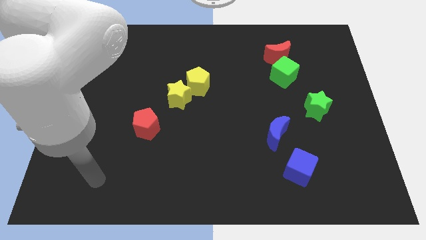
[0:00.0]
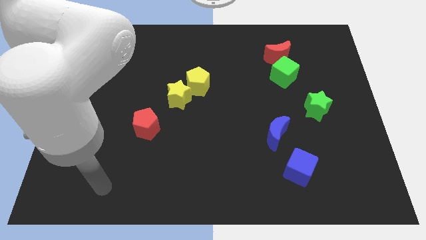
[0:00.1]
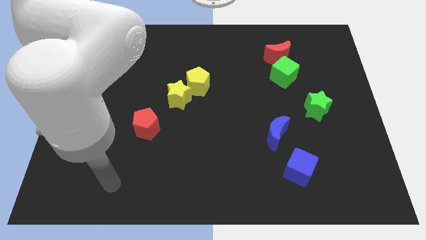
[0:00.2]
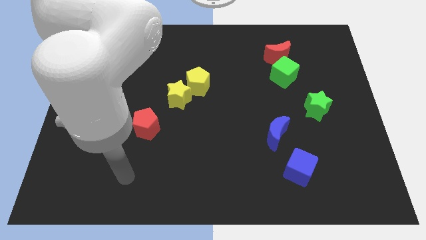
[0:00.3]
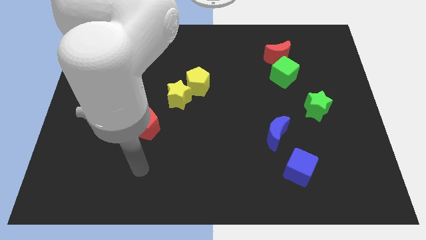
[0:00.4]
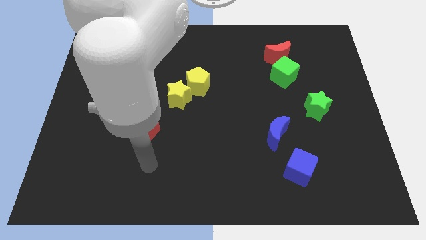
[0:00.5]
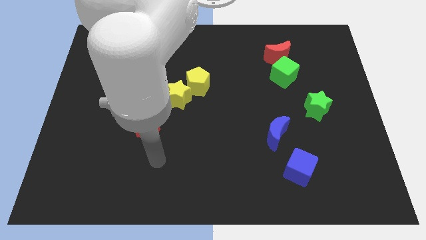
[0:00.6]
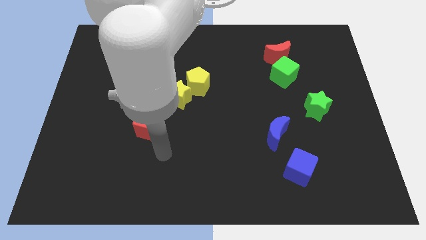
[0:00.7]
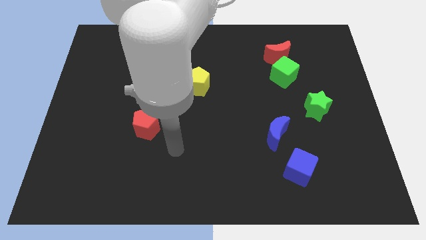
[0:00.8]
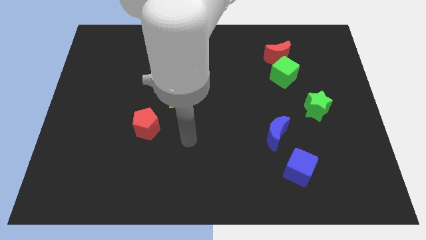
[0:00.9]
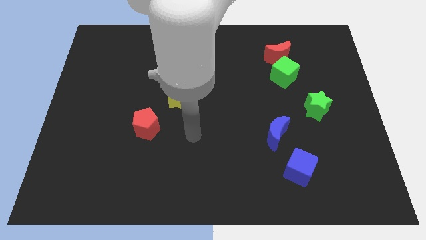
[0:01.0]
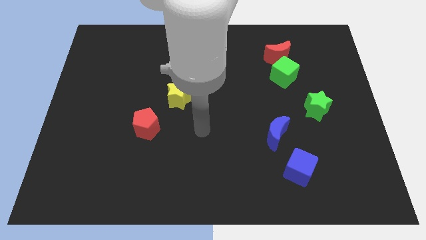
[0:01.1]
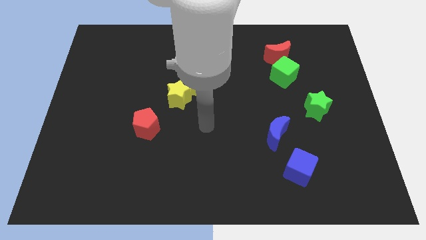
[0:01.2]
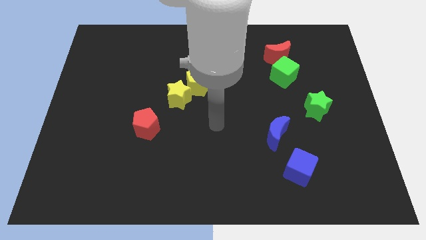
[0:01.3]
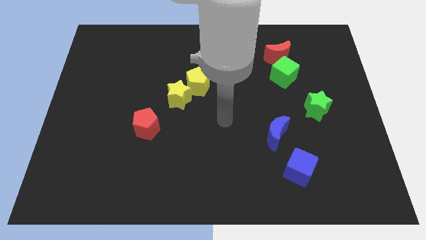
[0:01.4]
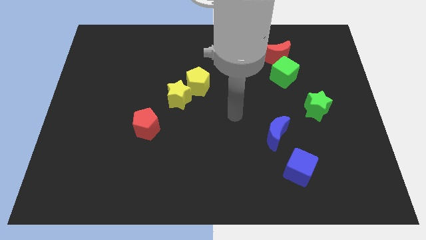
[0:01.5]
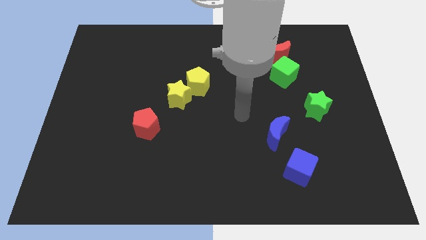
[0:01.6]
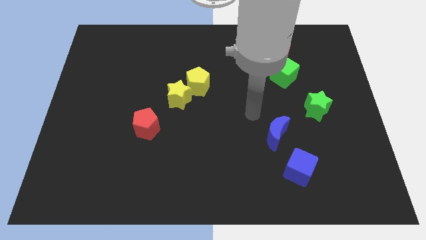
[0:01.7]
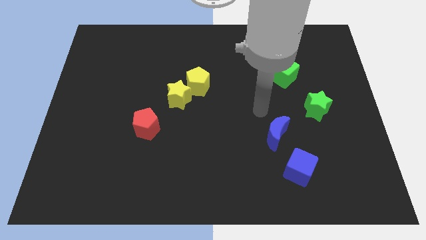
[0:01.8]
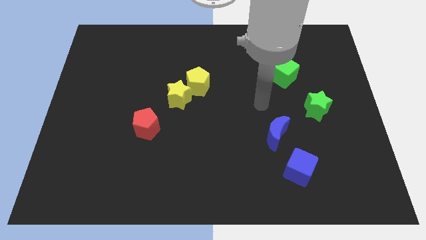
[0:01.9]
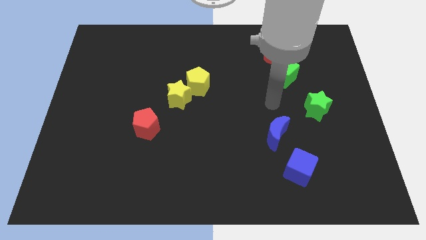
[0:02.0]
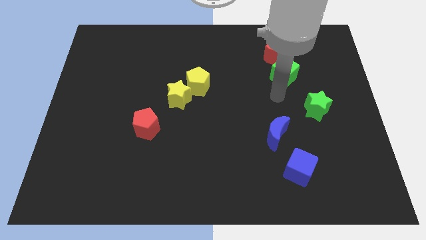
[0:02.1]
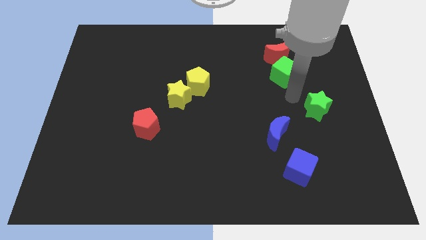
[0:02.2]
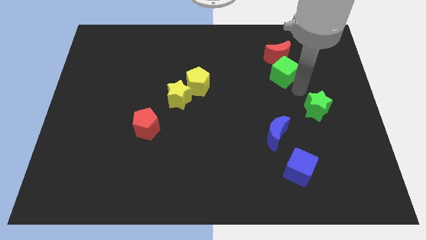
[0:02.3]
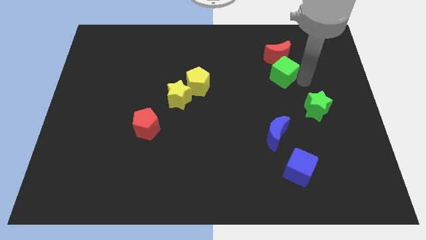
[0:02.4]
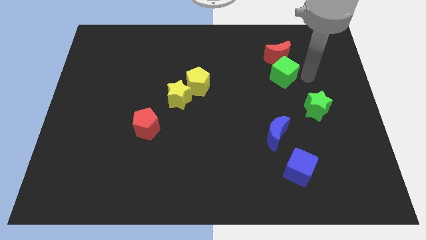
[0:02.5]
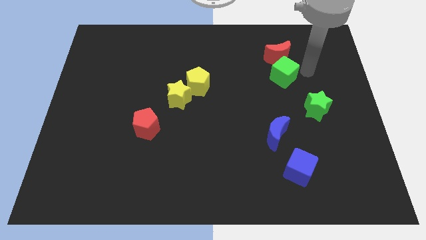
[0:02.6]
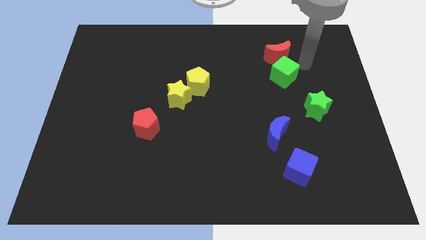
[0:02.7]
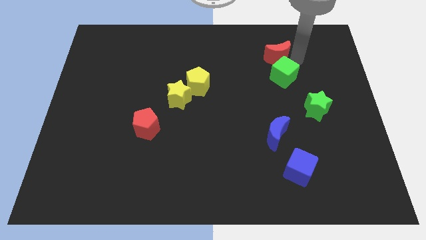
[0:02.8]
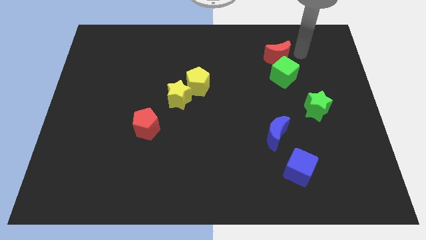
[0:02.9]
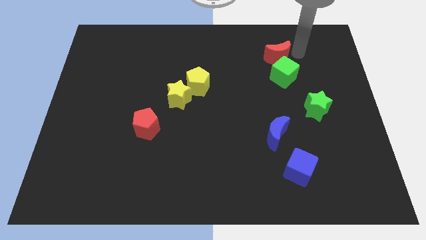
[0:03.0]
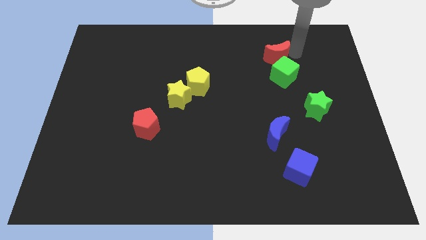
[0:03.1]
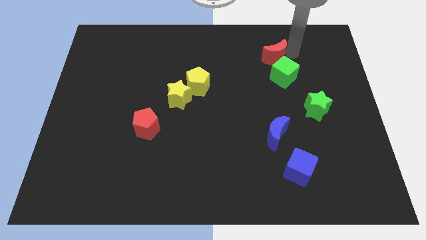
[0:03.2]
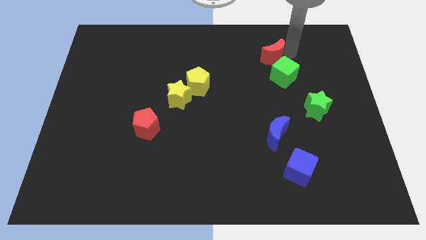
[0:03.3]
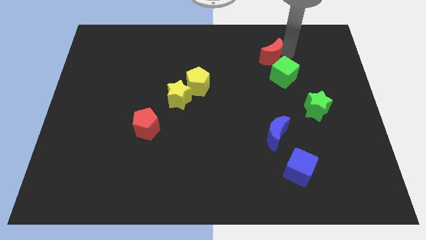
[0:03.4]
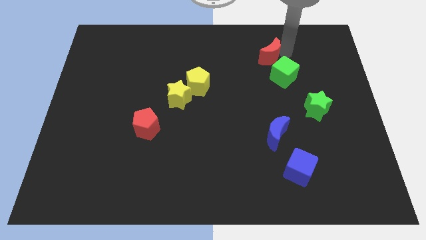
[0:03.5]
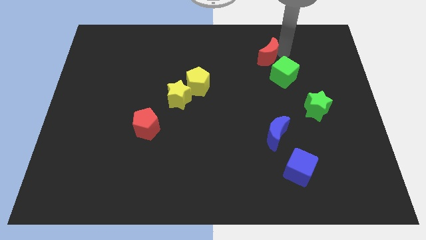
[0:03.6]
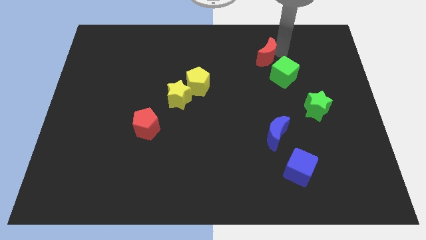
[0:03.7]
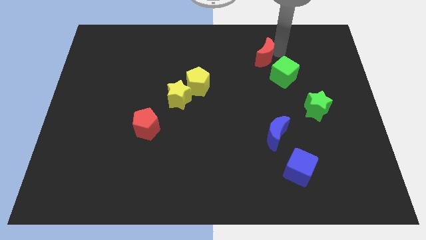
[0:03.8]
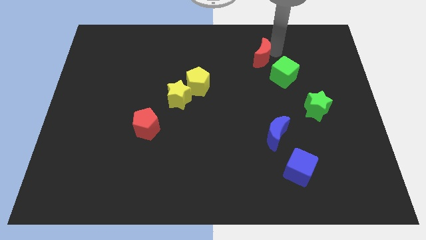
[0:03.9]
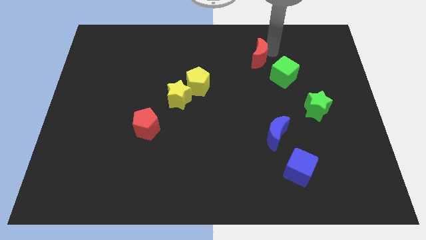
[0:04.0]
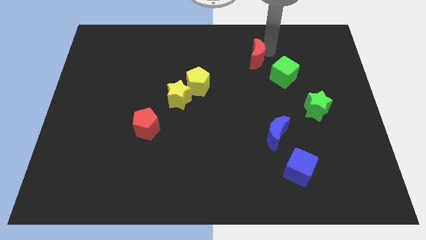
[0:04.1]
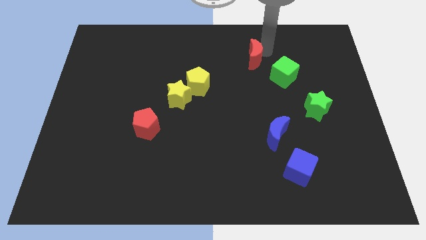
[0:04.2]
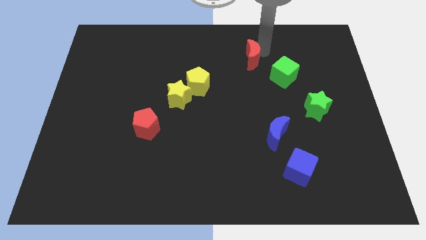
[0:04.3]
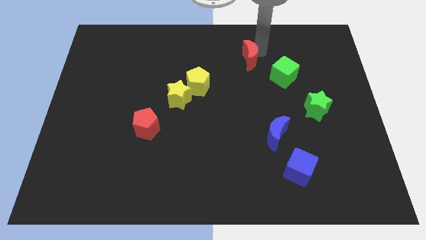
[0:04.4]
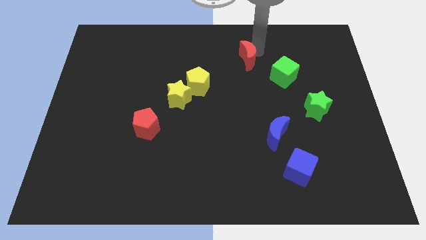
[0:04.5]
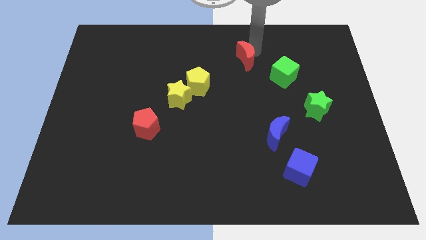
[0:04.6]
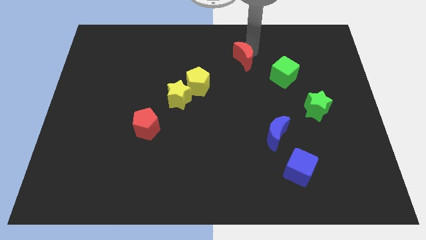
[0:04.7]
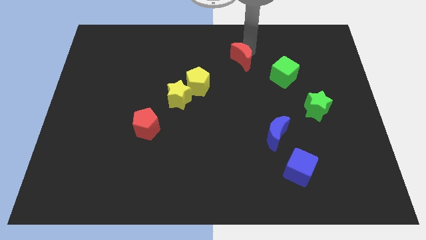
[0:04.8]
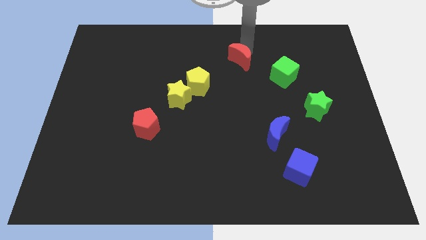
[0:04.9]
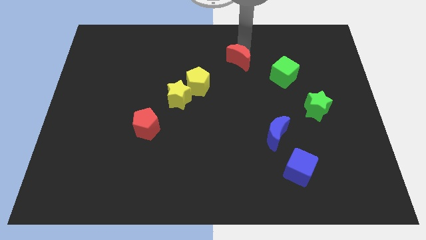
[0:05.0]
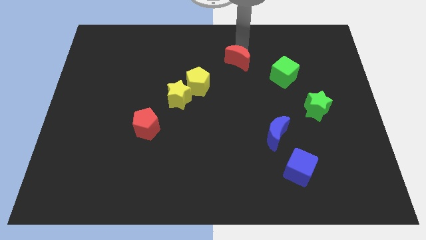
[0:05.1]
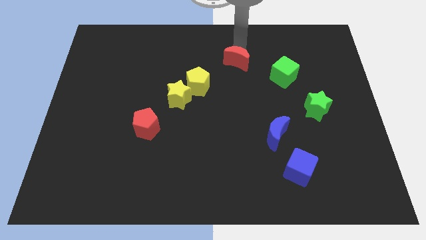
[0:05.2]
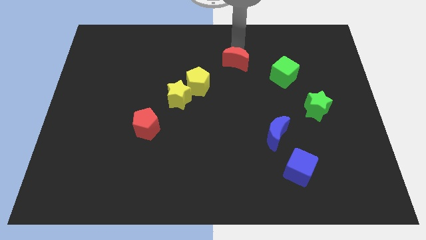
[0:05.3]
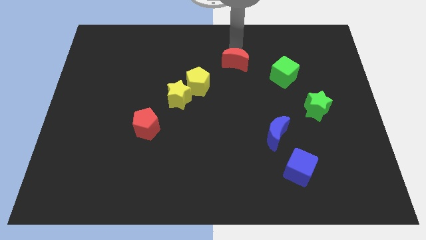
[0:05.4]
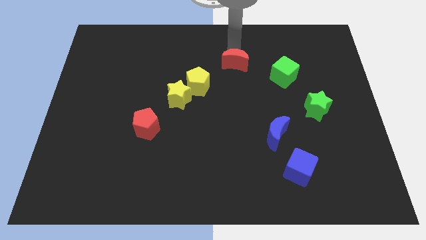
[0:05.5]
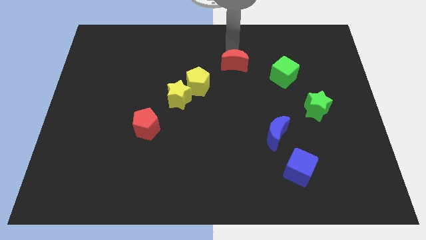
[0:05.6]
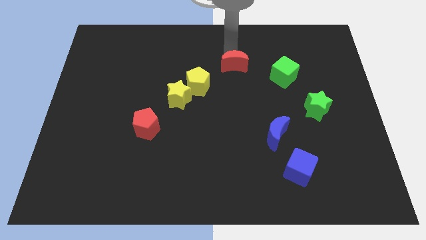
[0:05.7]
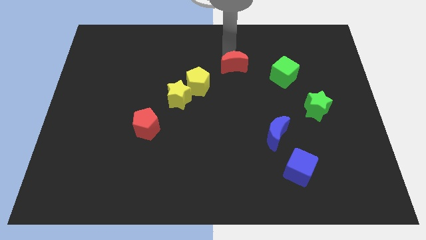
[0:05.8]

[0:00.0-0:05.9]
move the red moon to the center

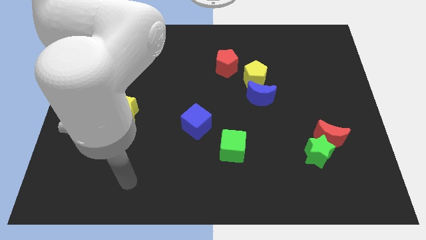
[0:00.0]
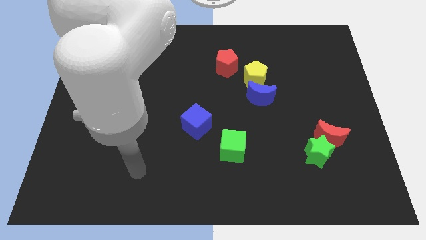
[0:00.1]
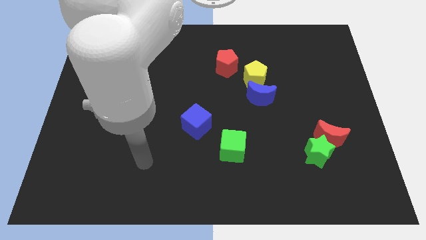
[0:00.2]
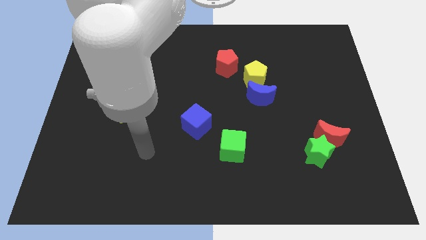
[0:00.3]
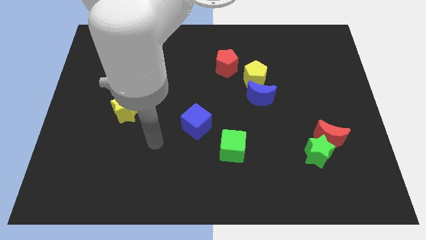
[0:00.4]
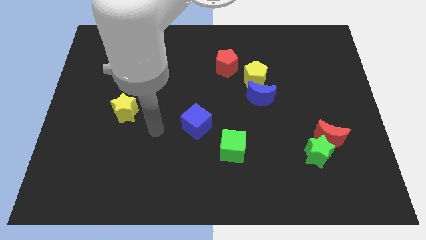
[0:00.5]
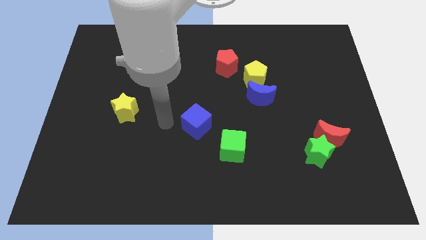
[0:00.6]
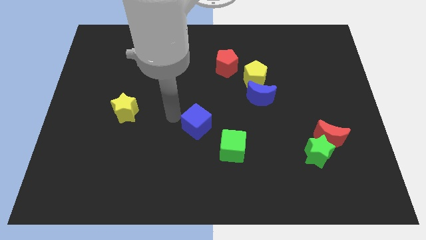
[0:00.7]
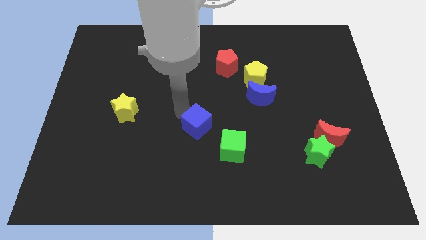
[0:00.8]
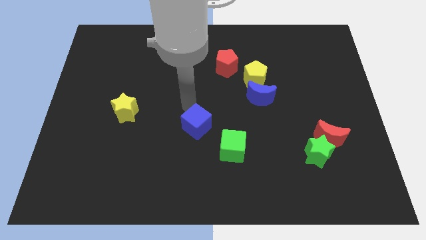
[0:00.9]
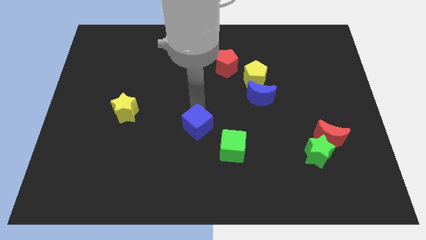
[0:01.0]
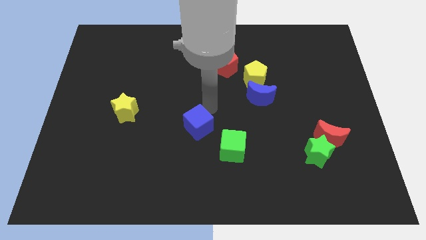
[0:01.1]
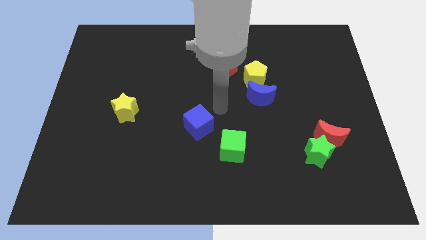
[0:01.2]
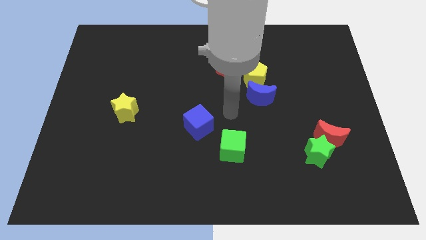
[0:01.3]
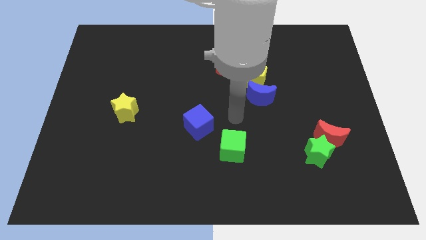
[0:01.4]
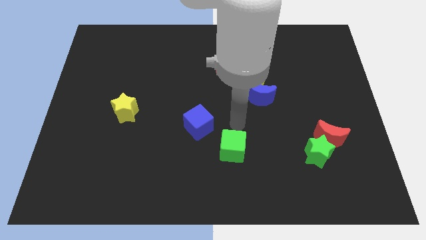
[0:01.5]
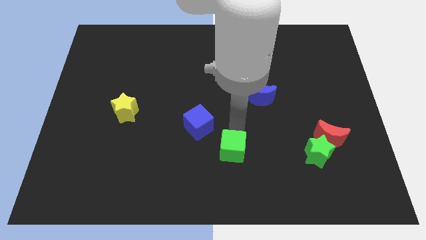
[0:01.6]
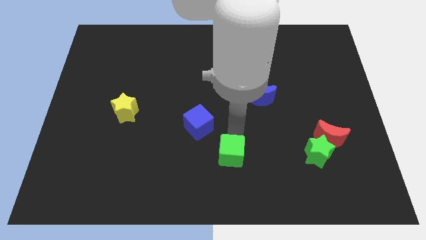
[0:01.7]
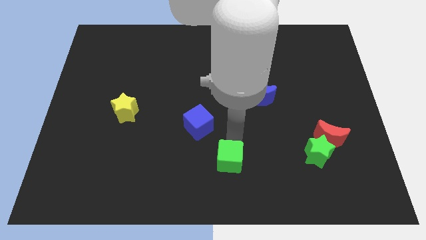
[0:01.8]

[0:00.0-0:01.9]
put the green cube to the bottom
